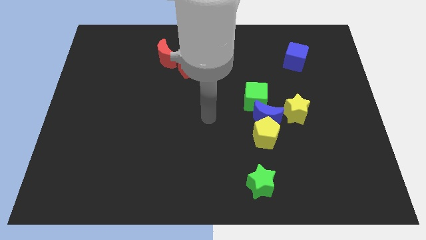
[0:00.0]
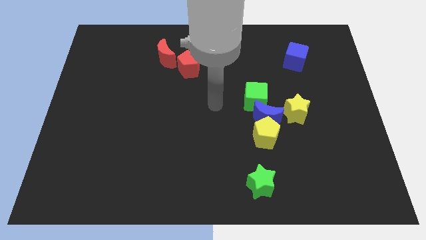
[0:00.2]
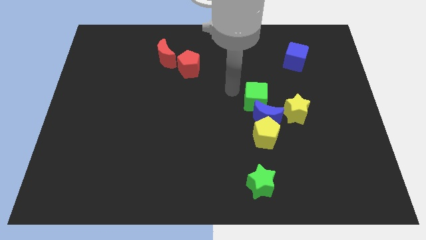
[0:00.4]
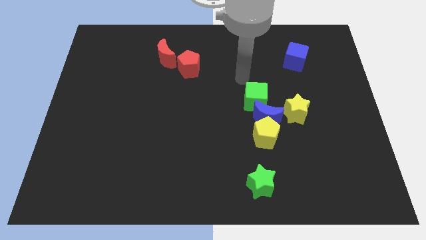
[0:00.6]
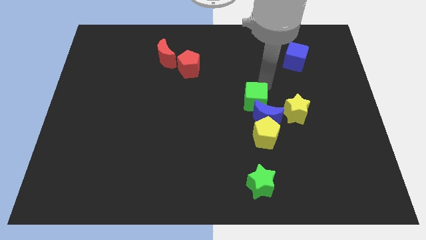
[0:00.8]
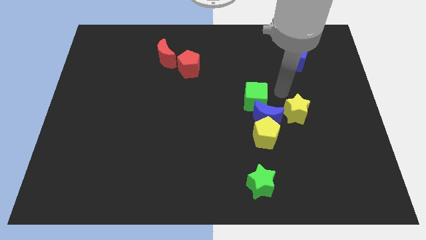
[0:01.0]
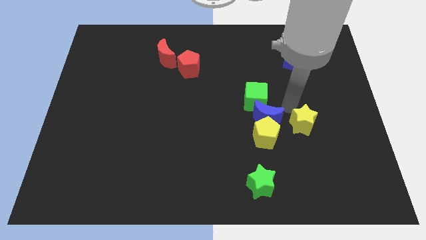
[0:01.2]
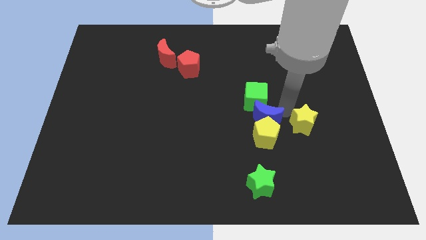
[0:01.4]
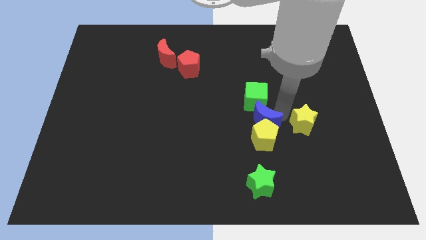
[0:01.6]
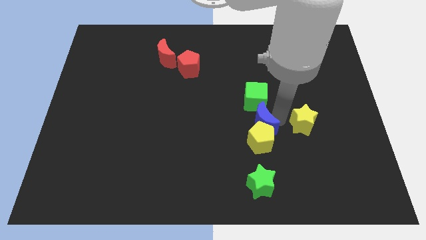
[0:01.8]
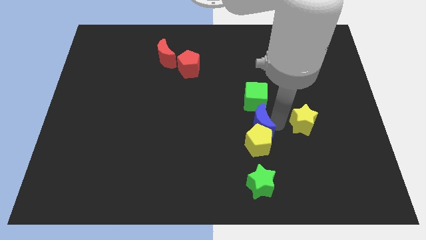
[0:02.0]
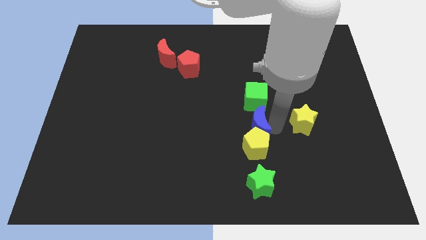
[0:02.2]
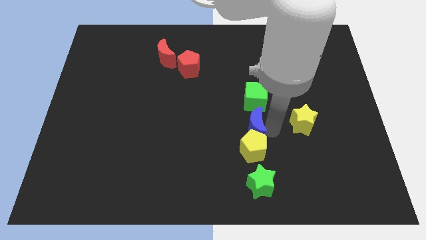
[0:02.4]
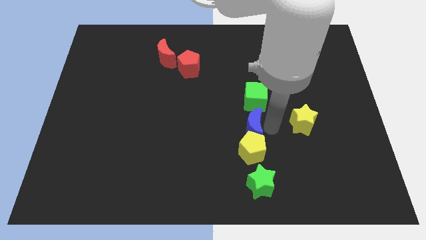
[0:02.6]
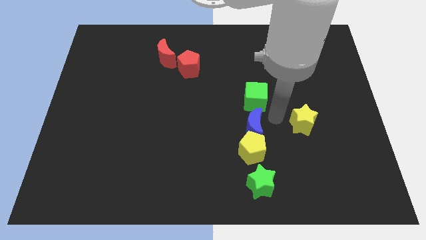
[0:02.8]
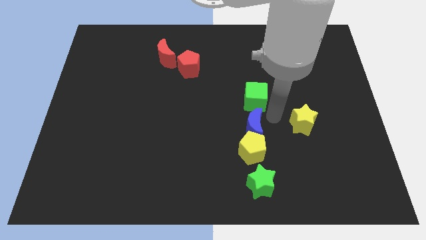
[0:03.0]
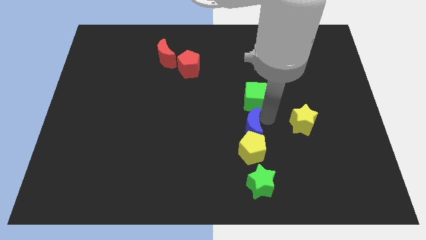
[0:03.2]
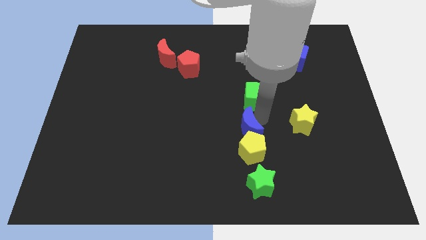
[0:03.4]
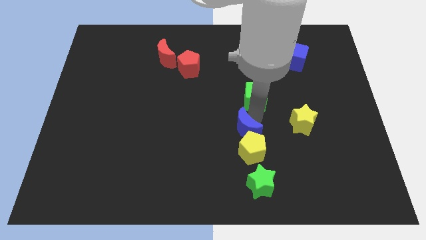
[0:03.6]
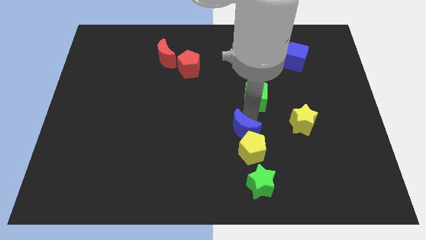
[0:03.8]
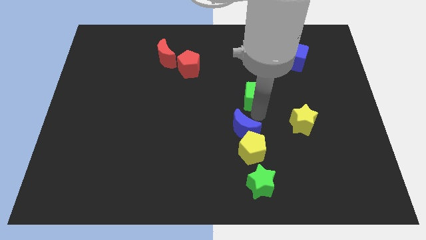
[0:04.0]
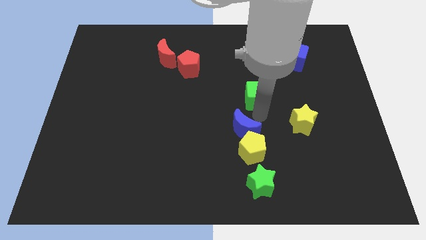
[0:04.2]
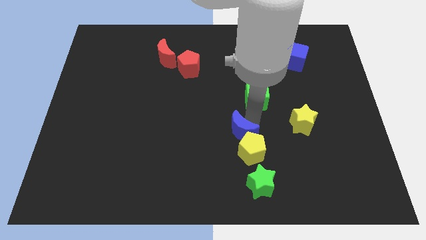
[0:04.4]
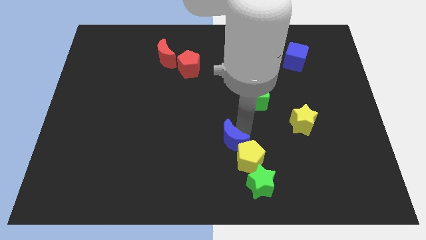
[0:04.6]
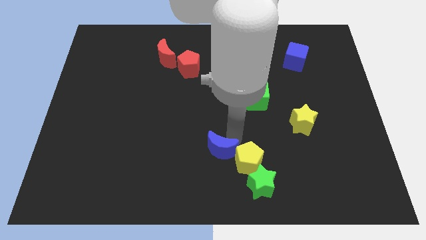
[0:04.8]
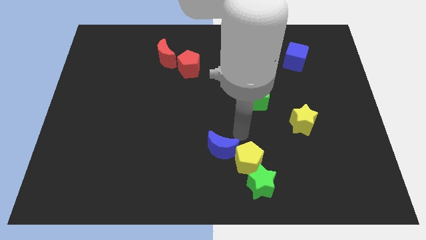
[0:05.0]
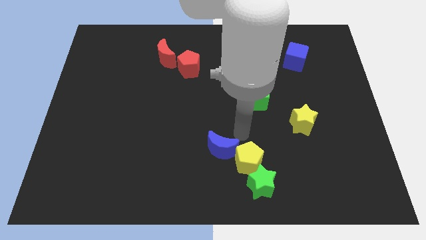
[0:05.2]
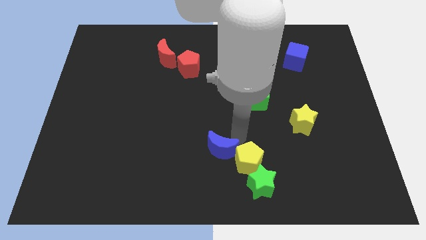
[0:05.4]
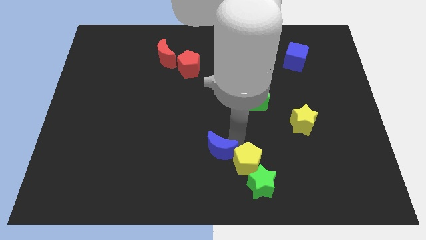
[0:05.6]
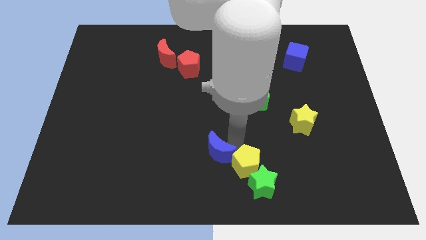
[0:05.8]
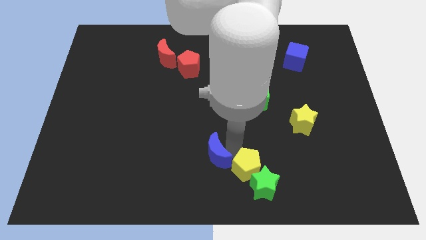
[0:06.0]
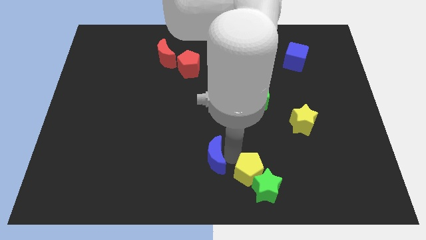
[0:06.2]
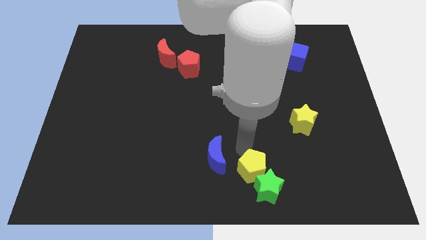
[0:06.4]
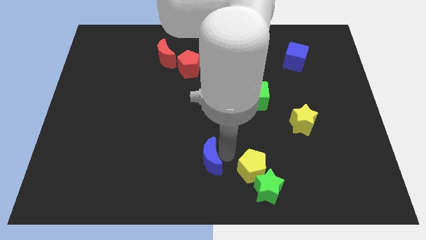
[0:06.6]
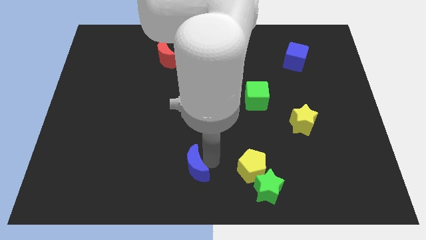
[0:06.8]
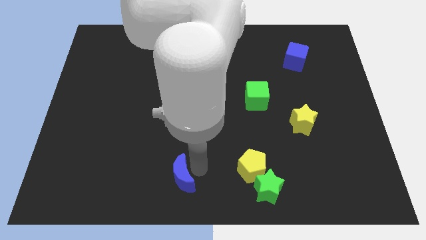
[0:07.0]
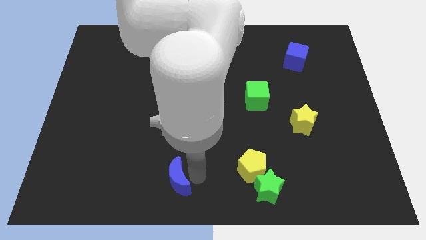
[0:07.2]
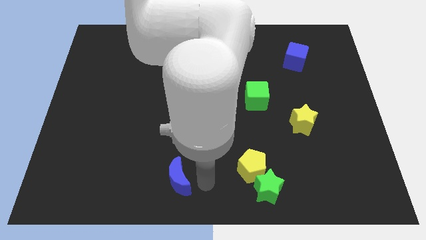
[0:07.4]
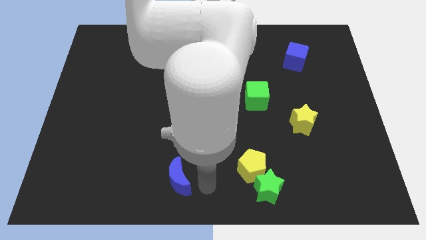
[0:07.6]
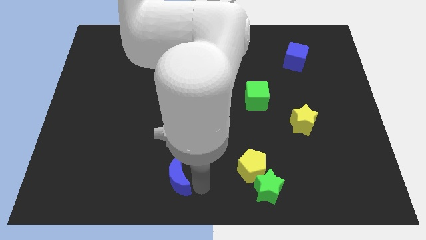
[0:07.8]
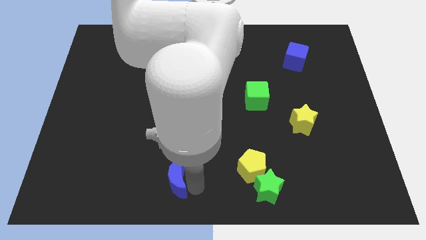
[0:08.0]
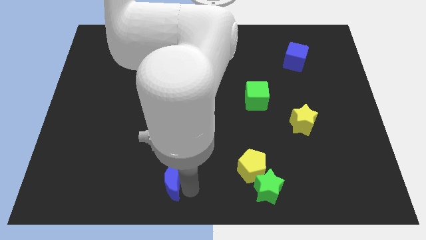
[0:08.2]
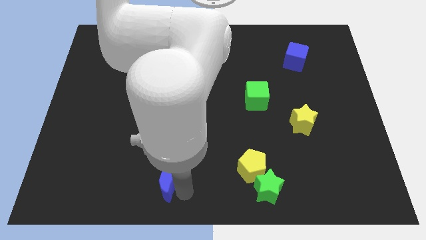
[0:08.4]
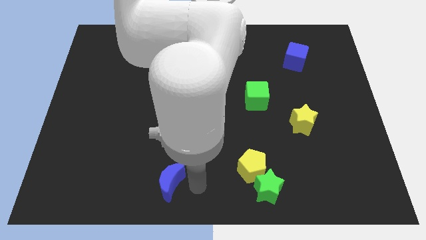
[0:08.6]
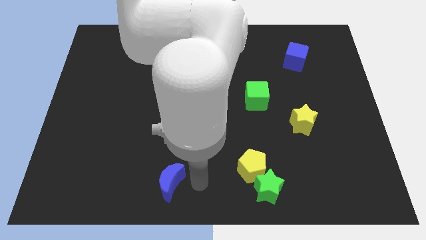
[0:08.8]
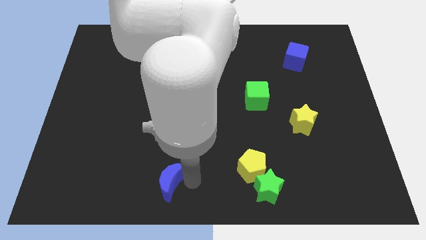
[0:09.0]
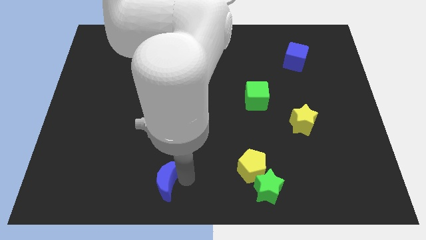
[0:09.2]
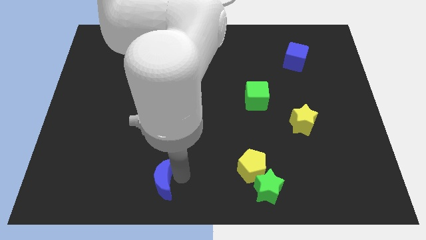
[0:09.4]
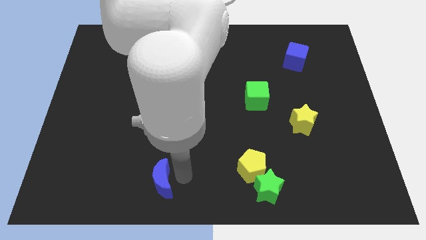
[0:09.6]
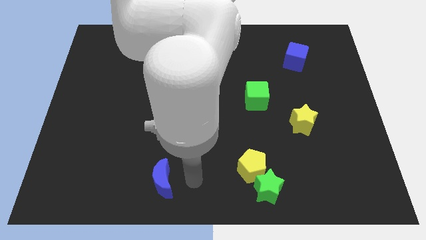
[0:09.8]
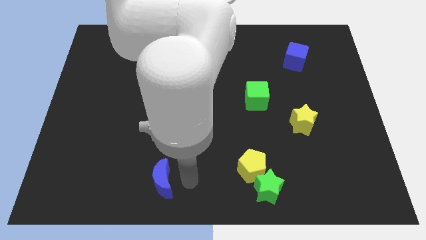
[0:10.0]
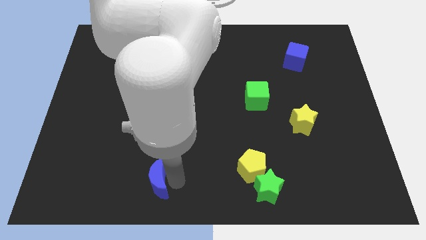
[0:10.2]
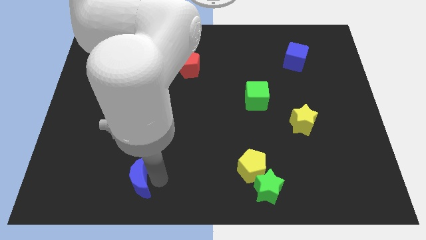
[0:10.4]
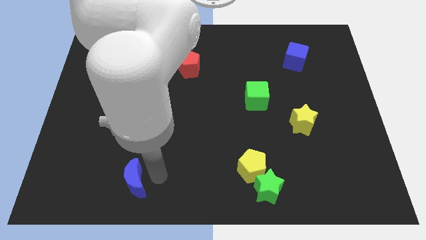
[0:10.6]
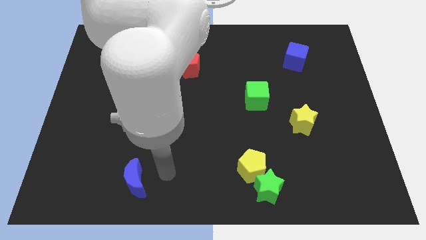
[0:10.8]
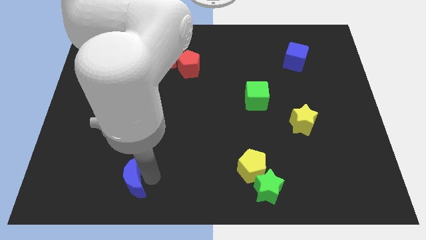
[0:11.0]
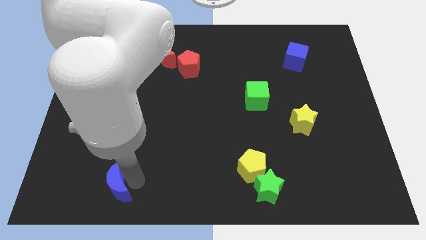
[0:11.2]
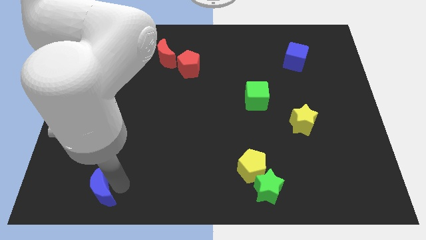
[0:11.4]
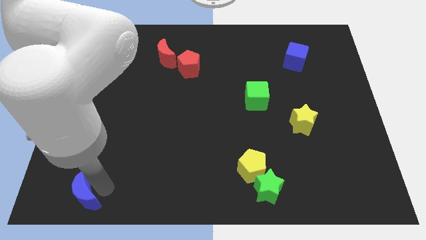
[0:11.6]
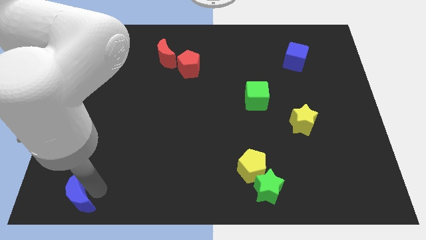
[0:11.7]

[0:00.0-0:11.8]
push the blue moon to the bottom left corner

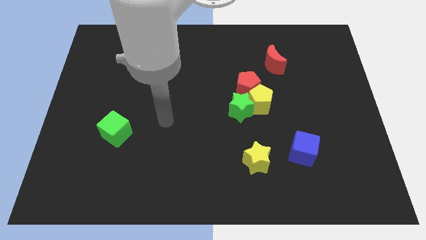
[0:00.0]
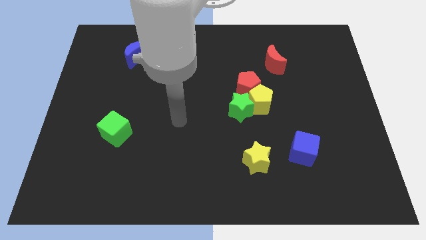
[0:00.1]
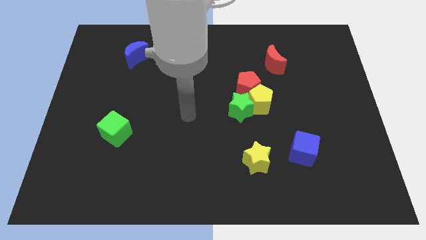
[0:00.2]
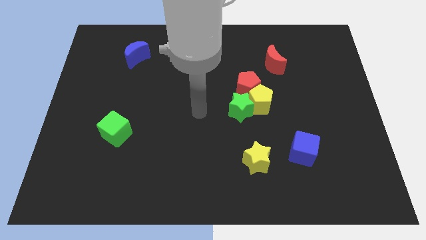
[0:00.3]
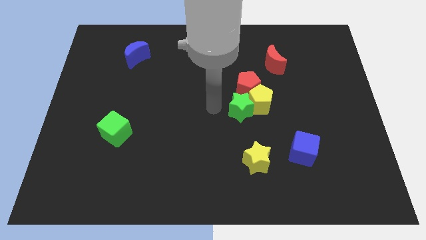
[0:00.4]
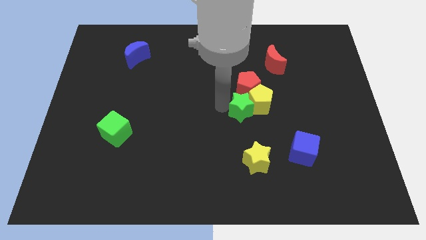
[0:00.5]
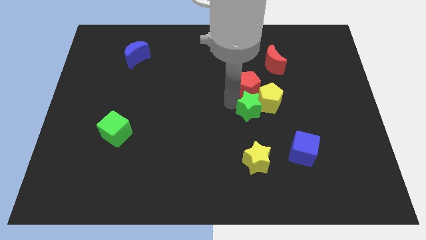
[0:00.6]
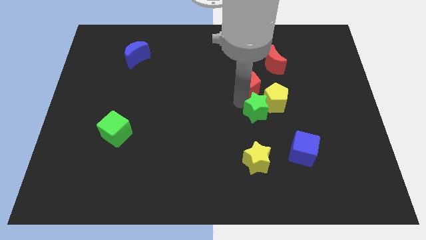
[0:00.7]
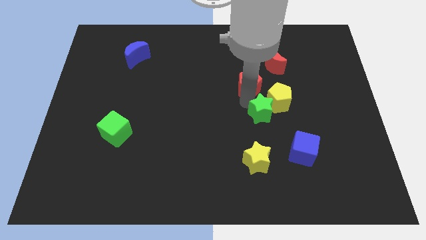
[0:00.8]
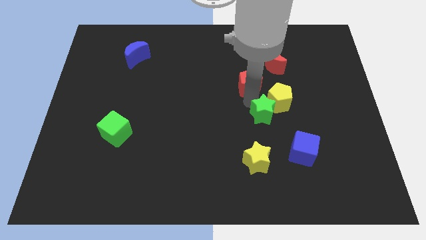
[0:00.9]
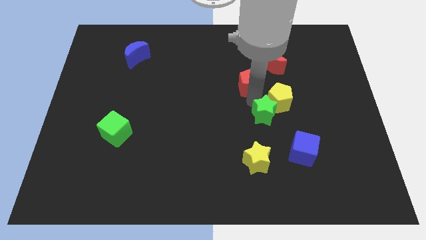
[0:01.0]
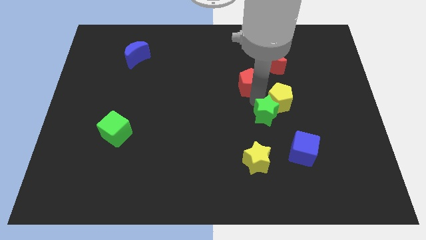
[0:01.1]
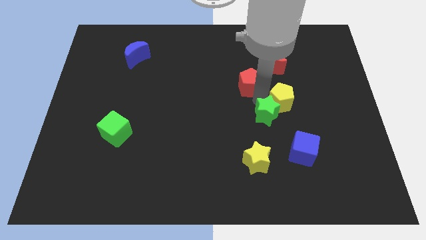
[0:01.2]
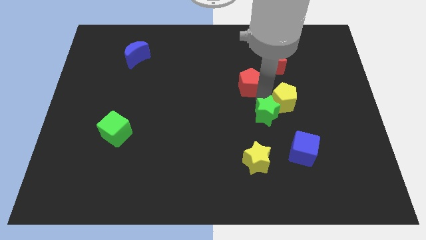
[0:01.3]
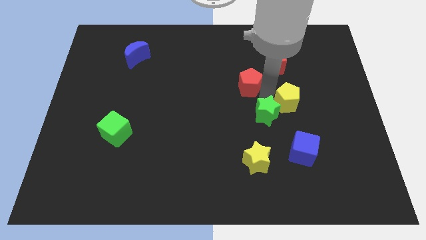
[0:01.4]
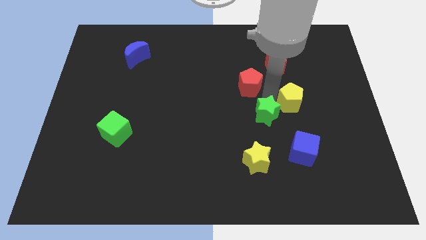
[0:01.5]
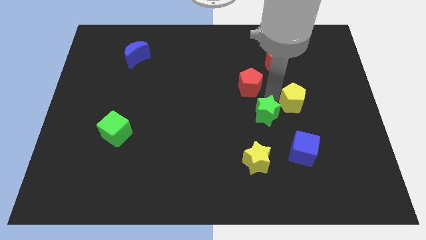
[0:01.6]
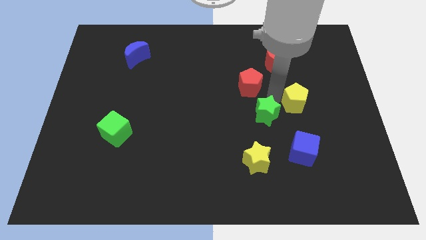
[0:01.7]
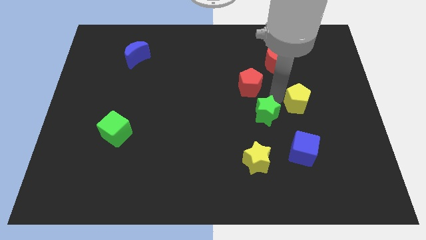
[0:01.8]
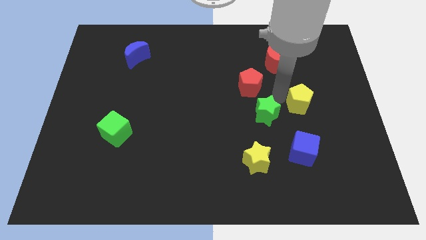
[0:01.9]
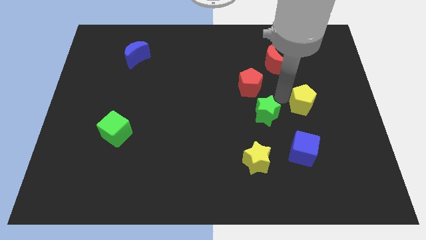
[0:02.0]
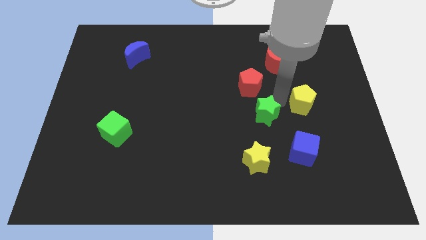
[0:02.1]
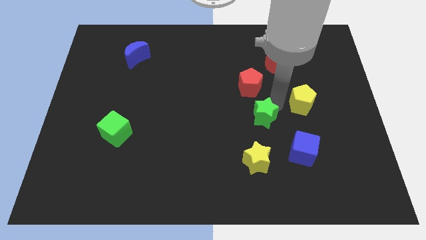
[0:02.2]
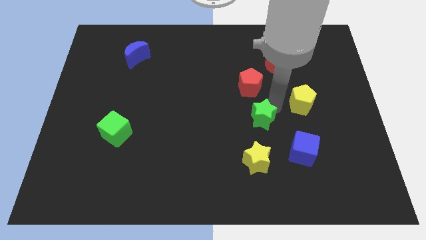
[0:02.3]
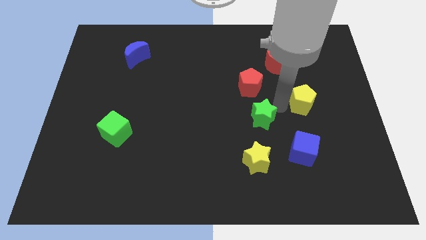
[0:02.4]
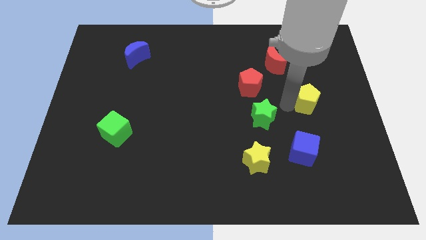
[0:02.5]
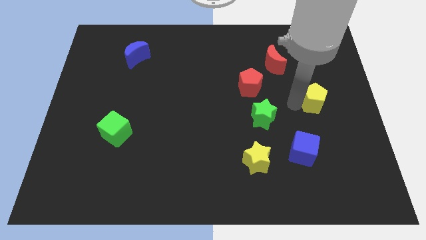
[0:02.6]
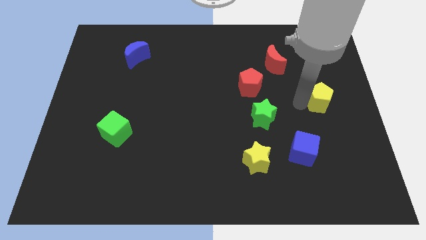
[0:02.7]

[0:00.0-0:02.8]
push the yellow pentagon to the center right
